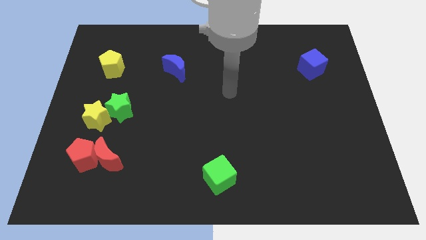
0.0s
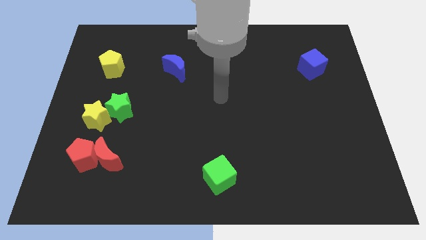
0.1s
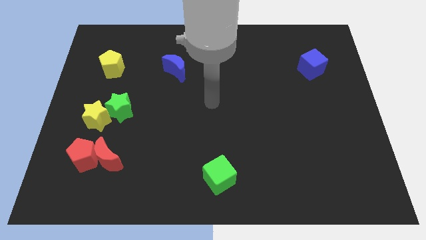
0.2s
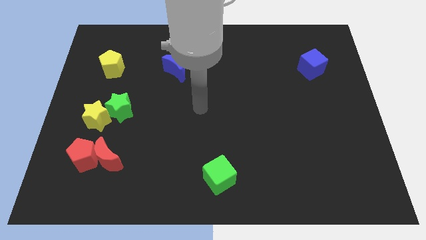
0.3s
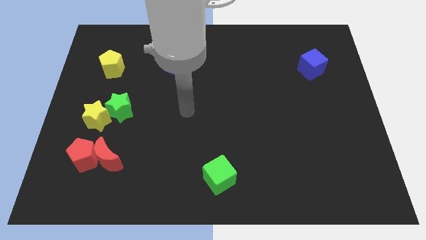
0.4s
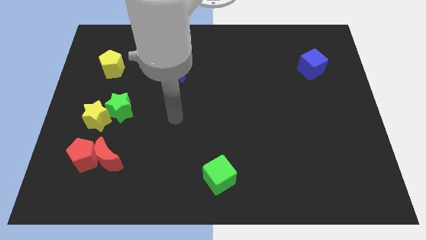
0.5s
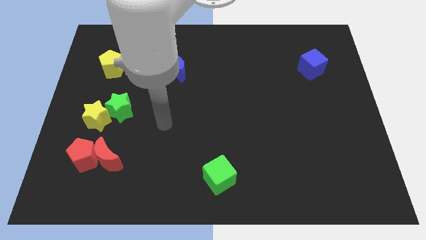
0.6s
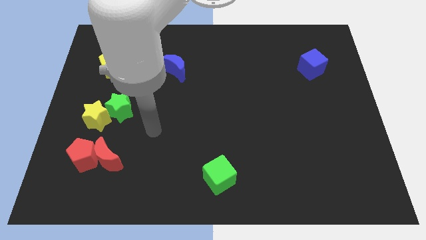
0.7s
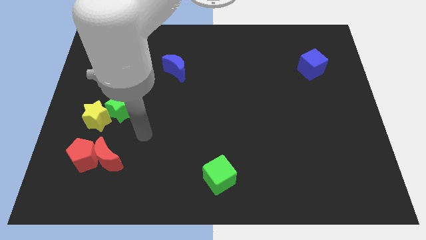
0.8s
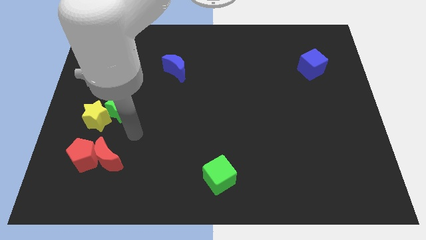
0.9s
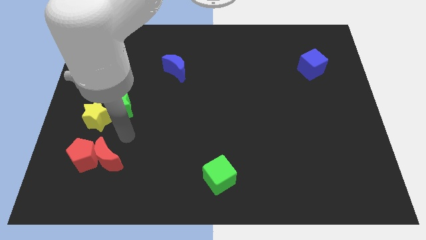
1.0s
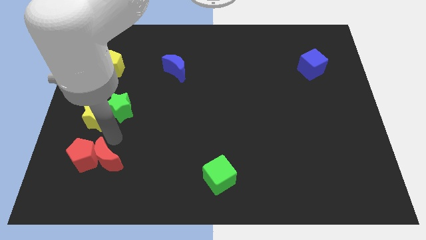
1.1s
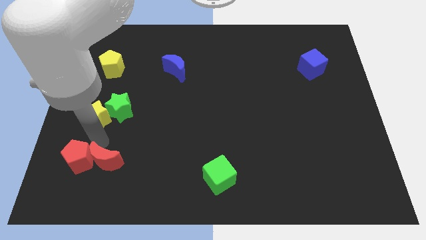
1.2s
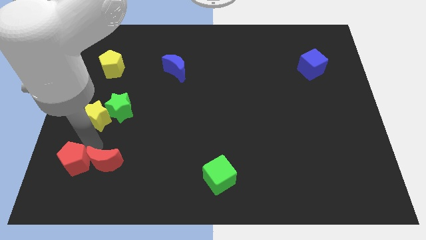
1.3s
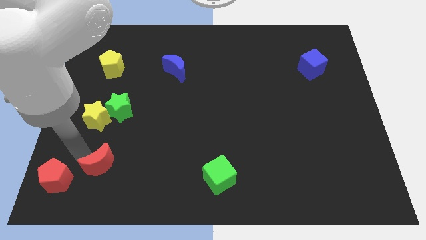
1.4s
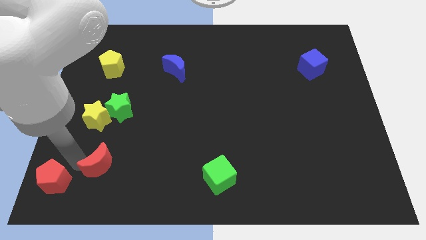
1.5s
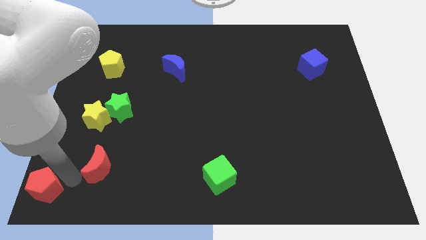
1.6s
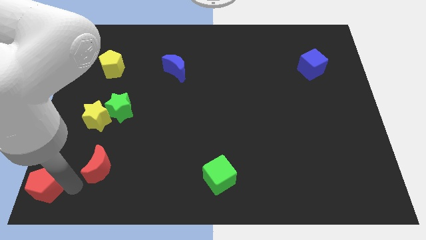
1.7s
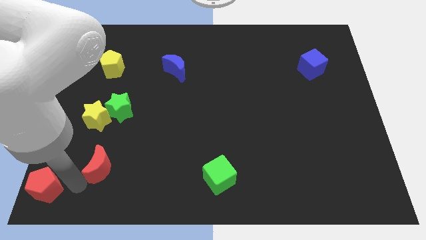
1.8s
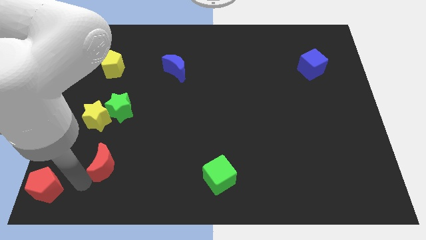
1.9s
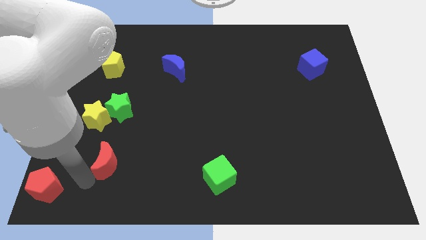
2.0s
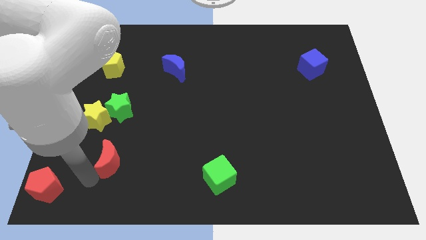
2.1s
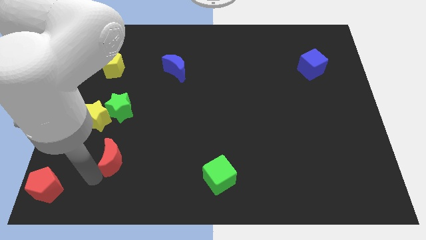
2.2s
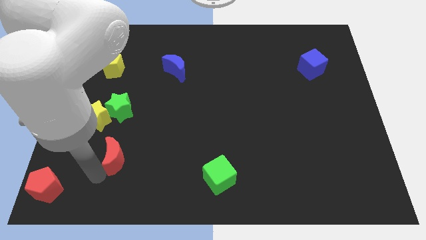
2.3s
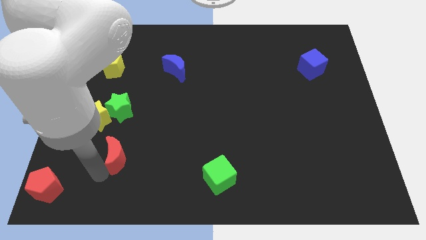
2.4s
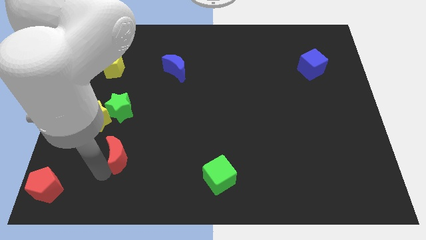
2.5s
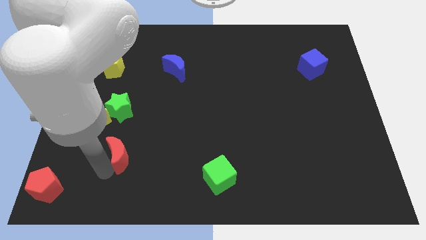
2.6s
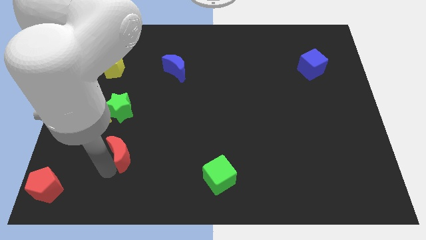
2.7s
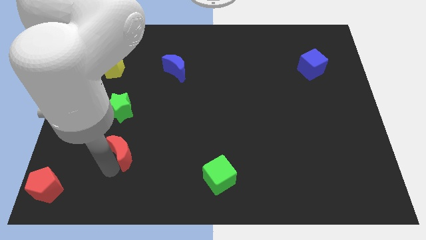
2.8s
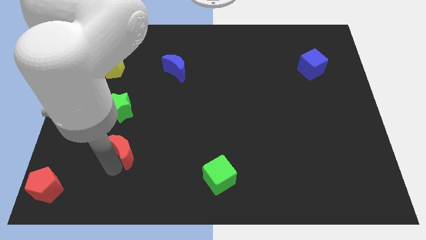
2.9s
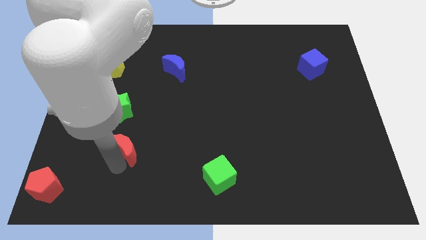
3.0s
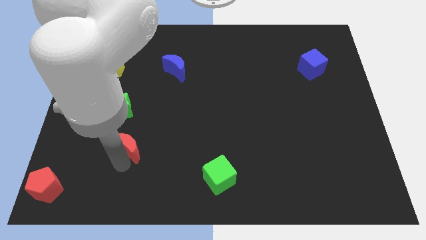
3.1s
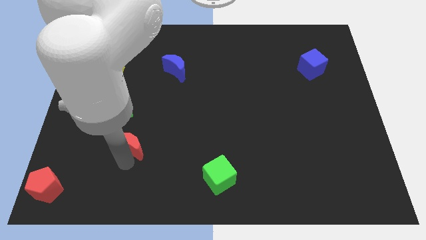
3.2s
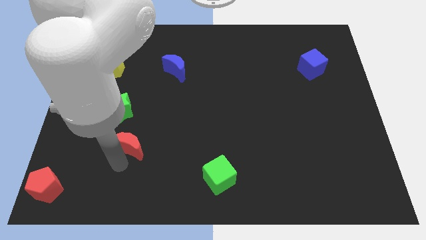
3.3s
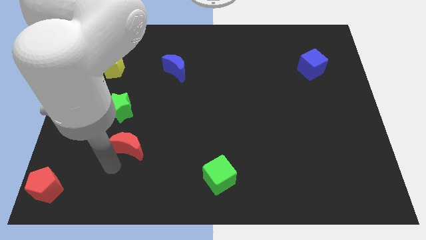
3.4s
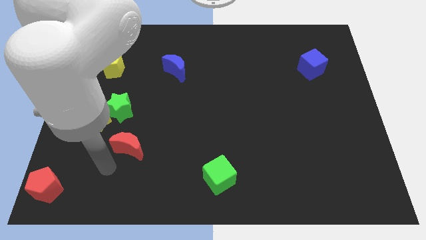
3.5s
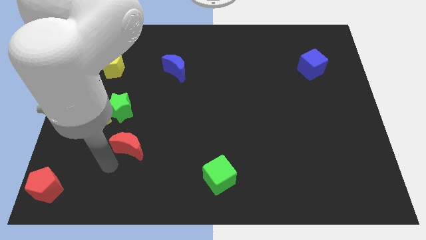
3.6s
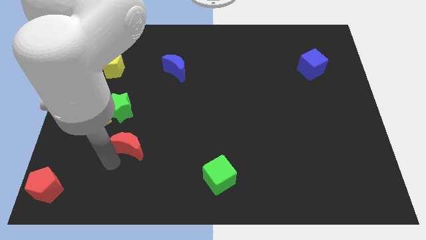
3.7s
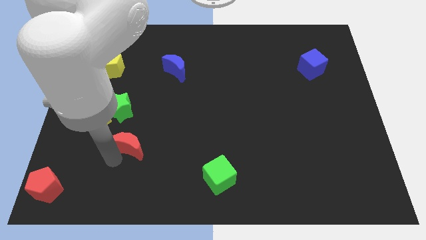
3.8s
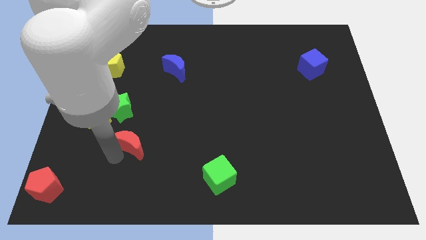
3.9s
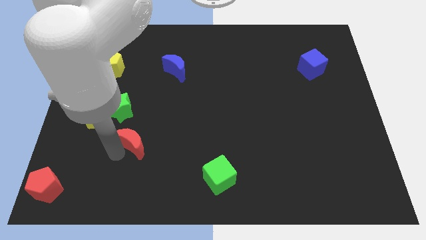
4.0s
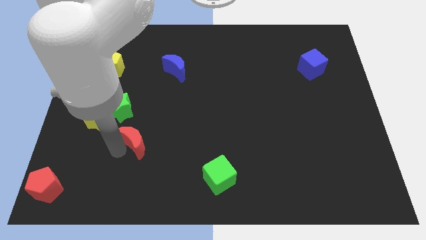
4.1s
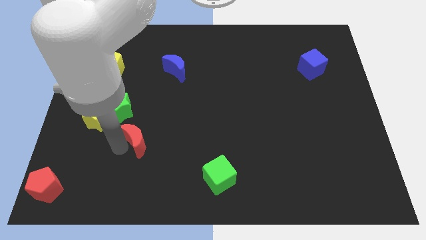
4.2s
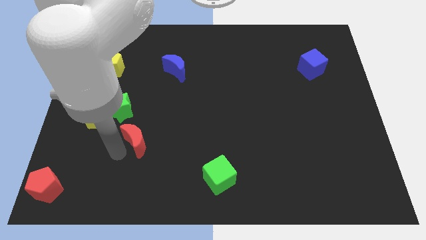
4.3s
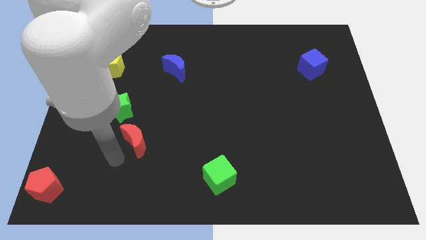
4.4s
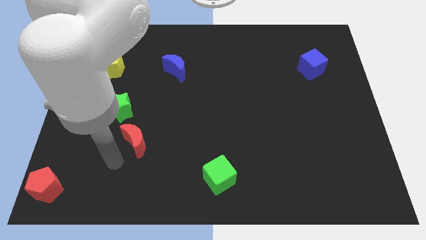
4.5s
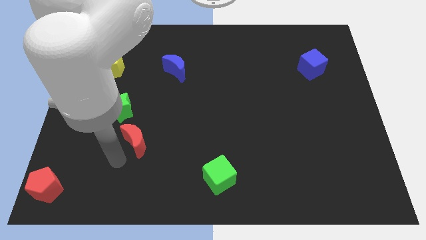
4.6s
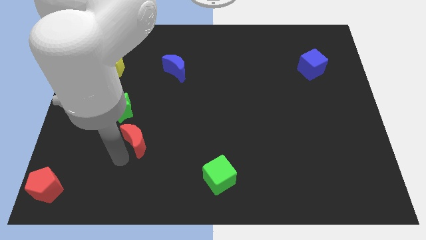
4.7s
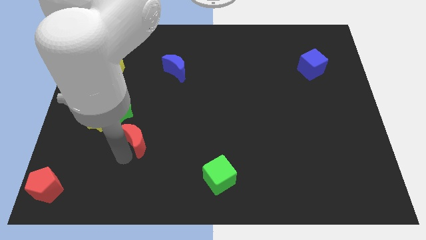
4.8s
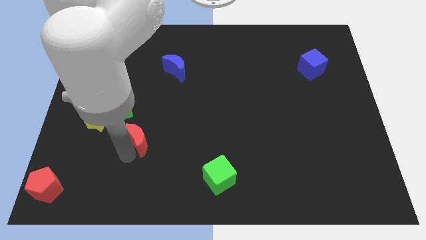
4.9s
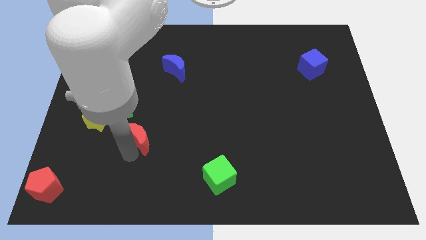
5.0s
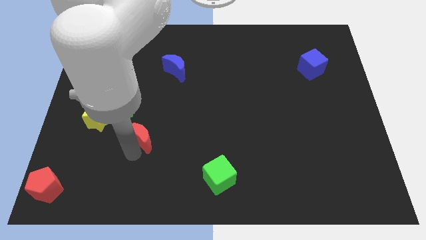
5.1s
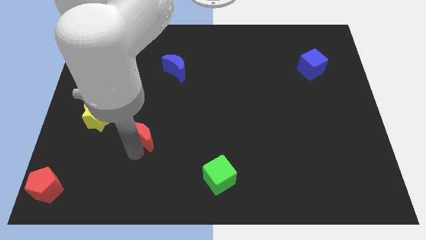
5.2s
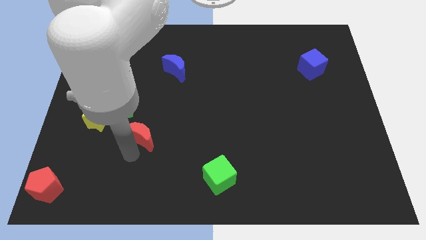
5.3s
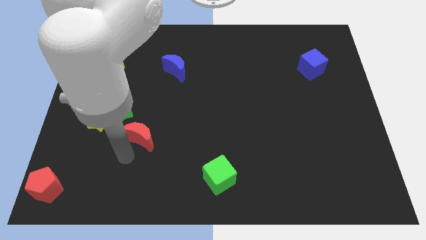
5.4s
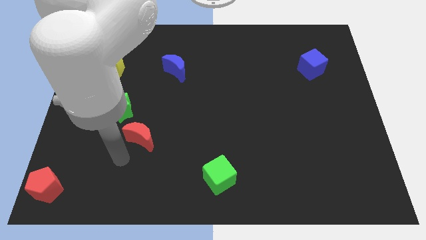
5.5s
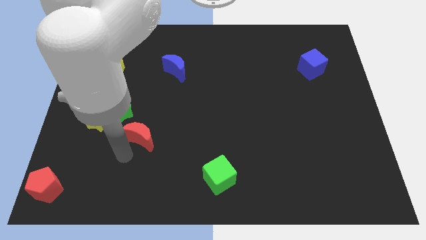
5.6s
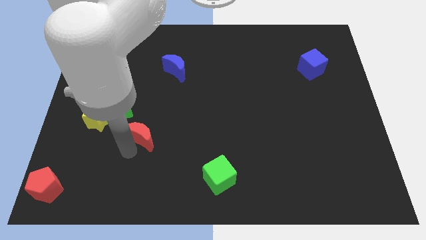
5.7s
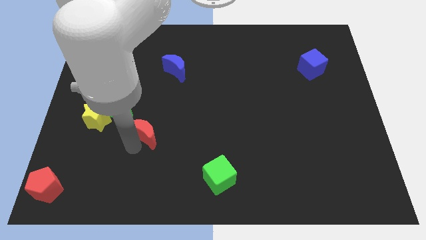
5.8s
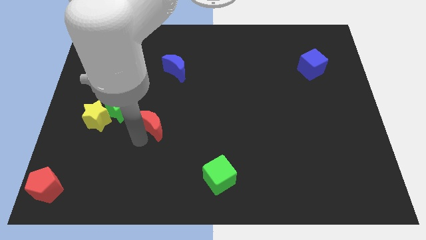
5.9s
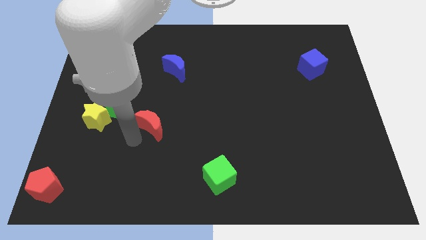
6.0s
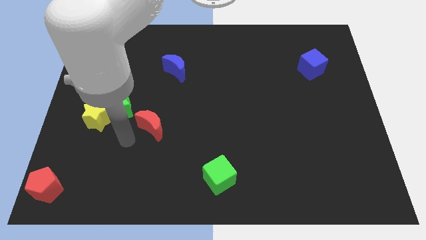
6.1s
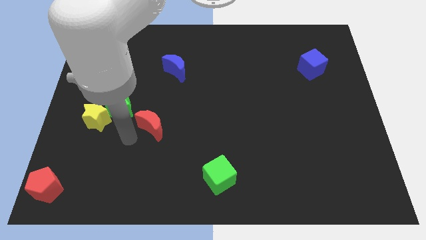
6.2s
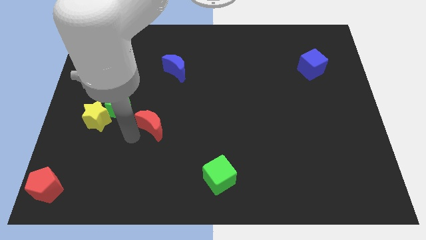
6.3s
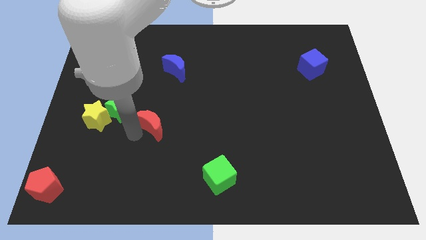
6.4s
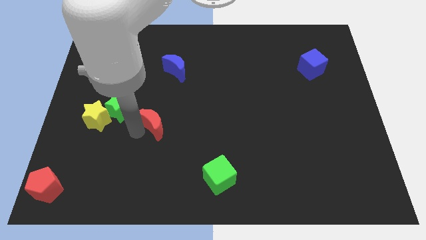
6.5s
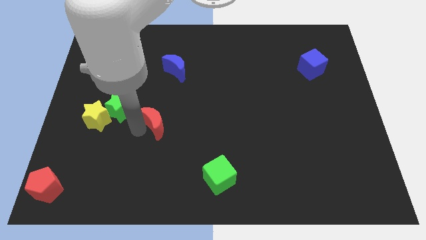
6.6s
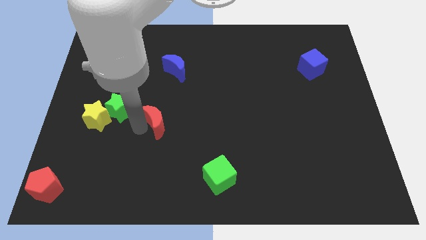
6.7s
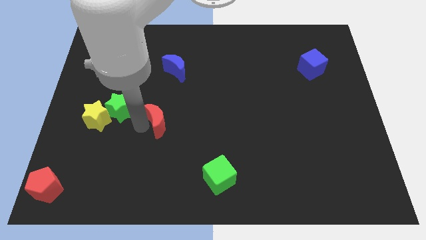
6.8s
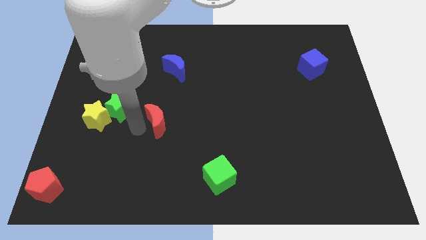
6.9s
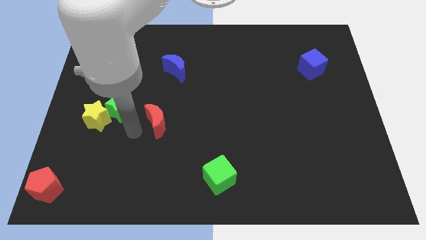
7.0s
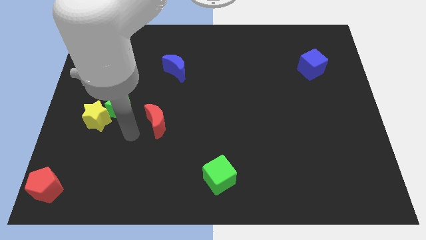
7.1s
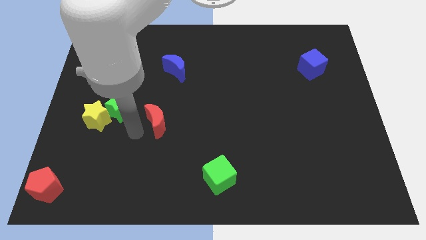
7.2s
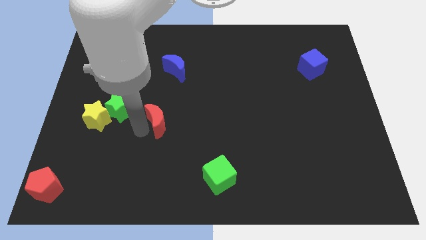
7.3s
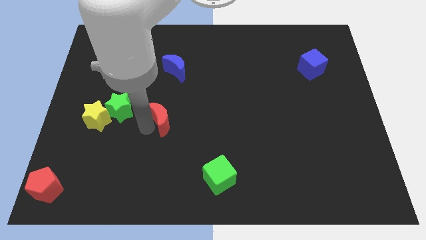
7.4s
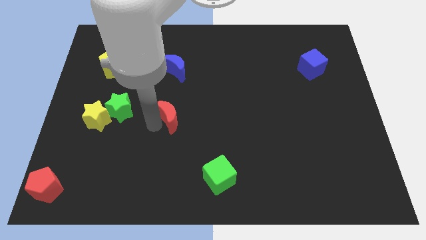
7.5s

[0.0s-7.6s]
slide the red moon to the center
